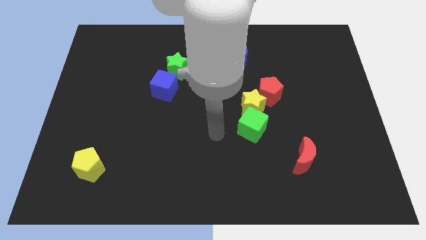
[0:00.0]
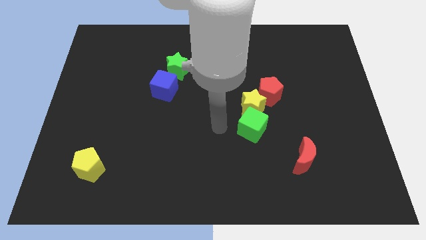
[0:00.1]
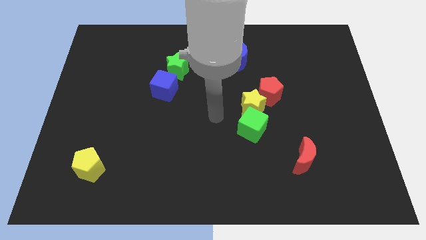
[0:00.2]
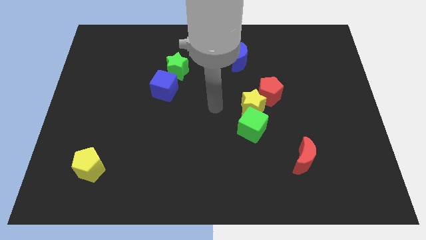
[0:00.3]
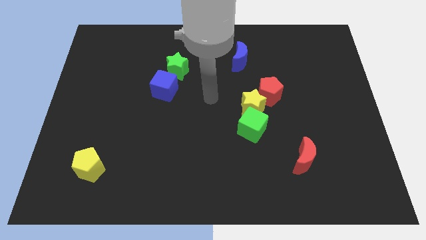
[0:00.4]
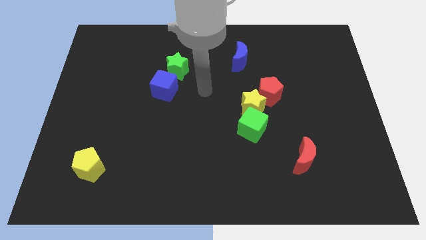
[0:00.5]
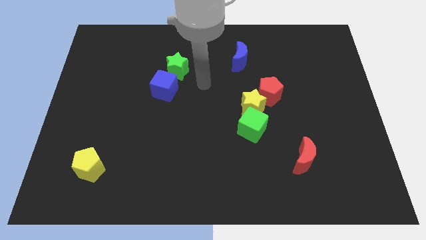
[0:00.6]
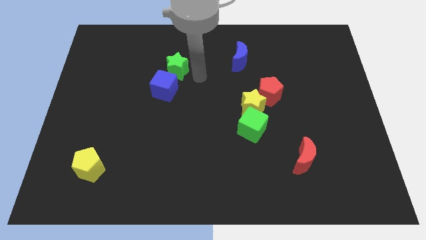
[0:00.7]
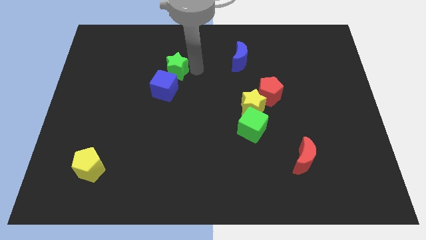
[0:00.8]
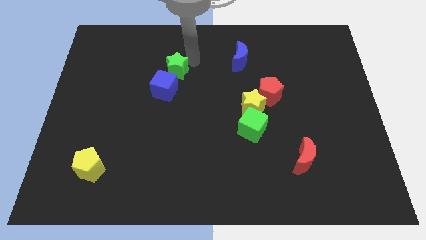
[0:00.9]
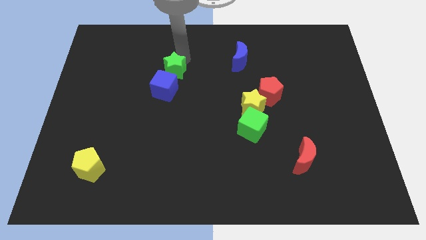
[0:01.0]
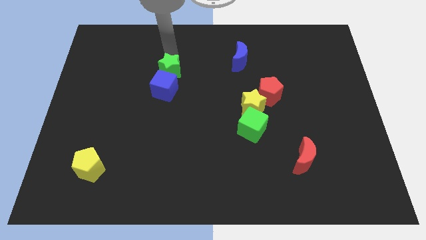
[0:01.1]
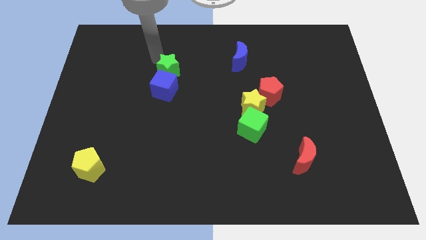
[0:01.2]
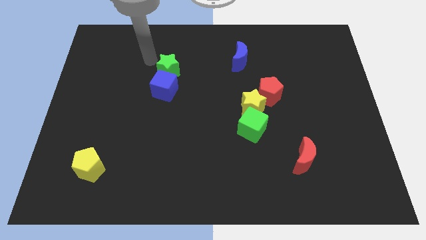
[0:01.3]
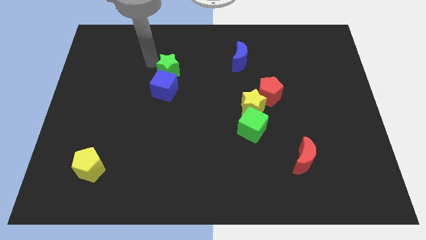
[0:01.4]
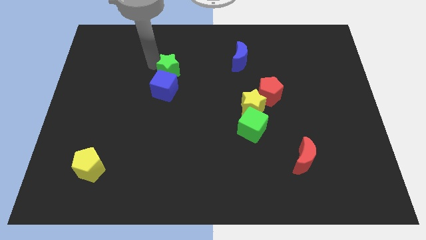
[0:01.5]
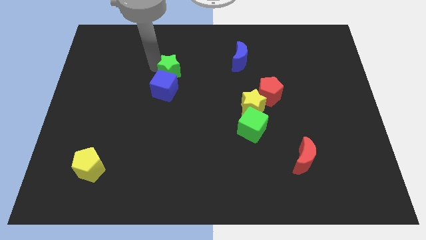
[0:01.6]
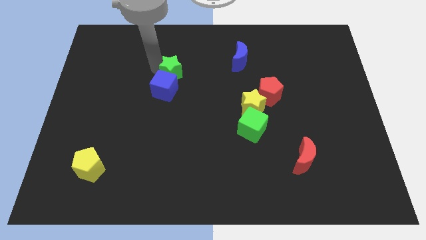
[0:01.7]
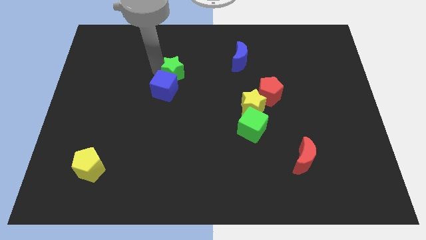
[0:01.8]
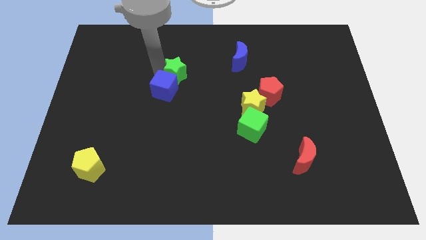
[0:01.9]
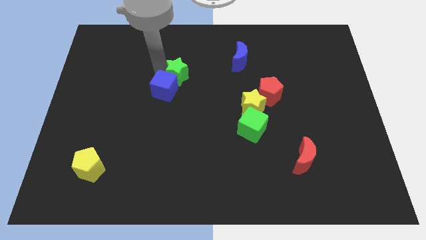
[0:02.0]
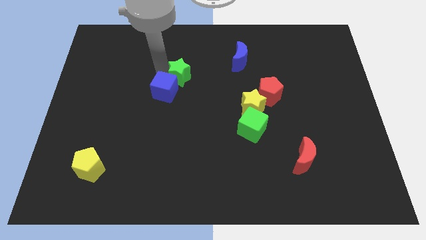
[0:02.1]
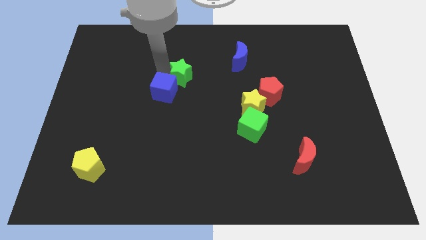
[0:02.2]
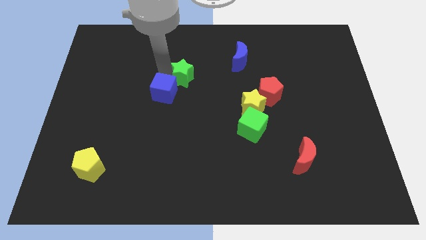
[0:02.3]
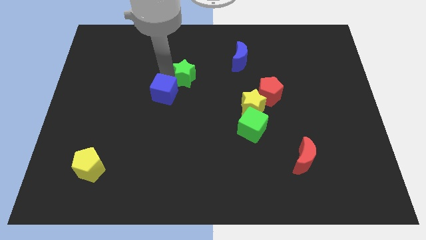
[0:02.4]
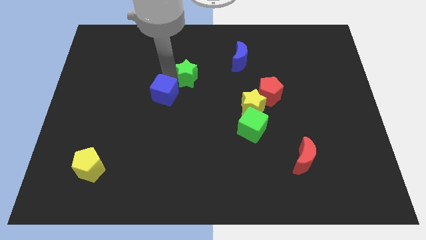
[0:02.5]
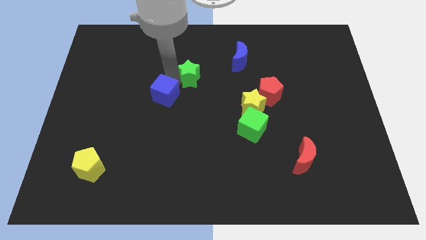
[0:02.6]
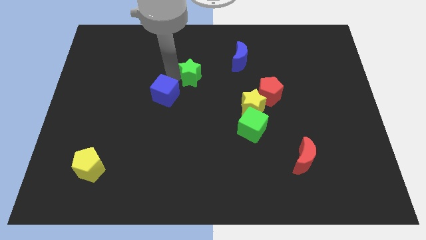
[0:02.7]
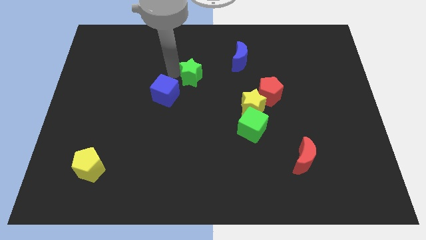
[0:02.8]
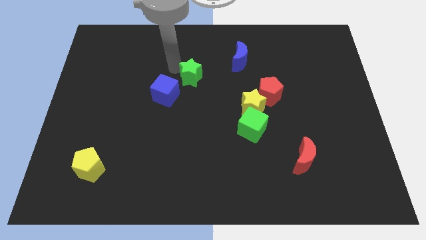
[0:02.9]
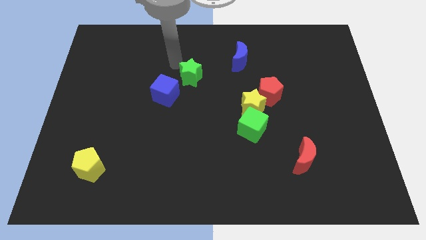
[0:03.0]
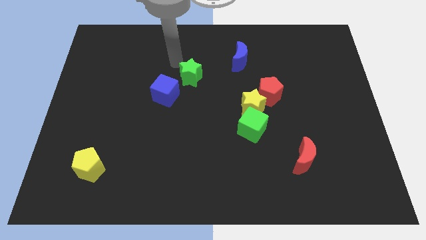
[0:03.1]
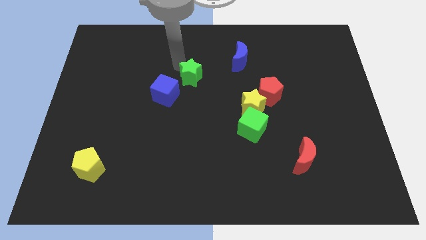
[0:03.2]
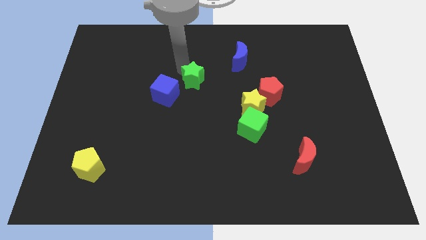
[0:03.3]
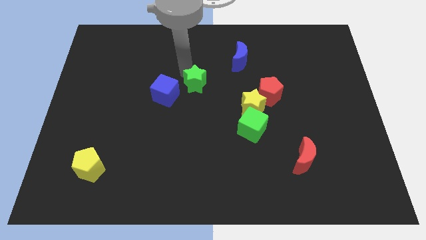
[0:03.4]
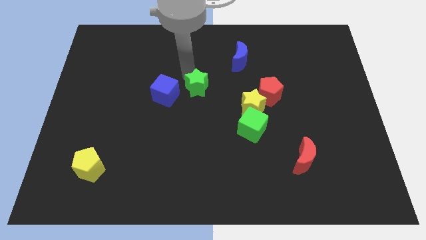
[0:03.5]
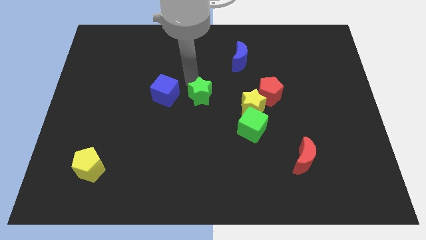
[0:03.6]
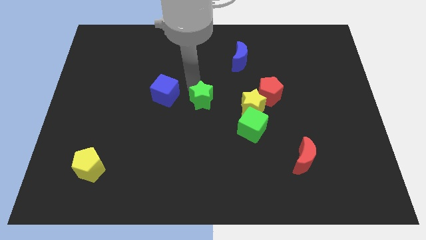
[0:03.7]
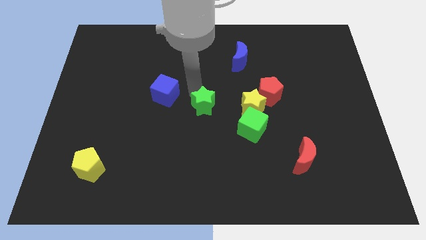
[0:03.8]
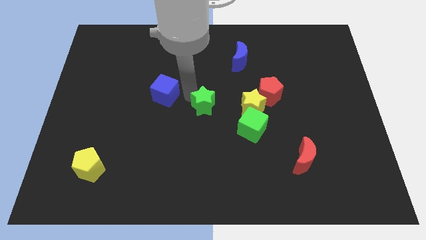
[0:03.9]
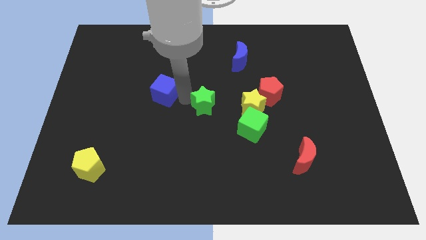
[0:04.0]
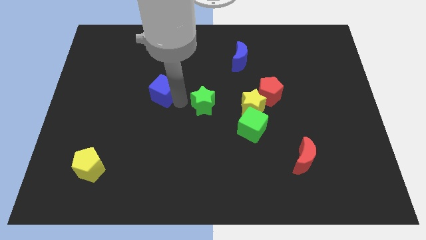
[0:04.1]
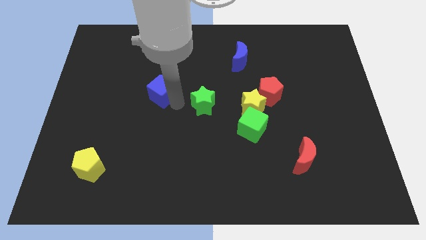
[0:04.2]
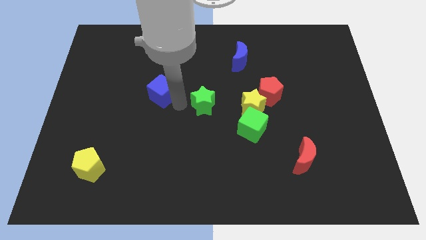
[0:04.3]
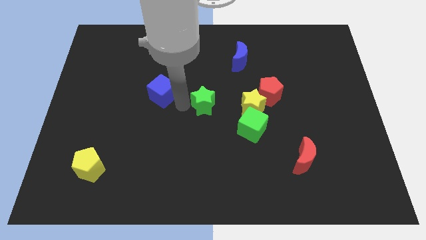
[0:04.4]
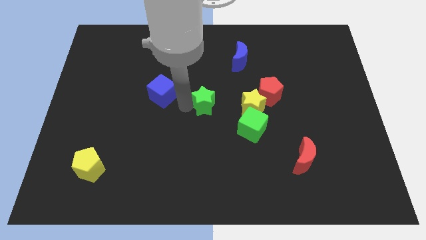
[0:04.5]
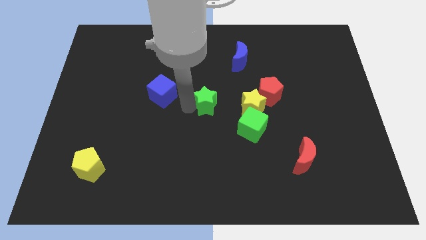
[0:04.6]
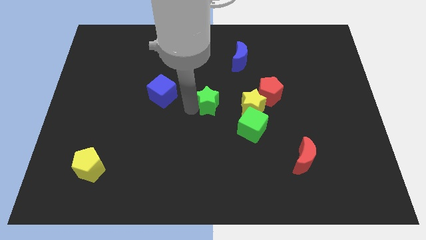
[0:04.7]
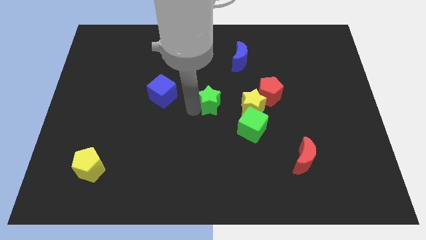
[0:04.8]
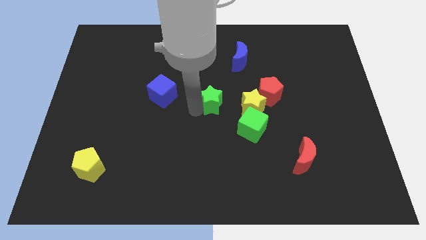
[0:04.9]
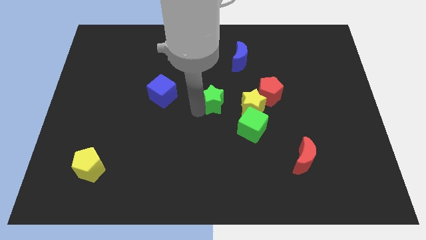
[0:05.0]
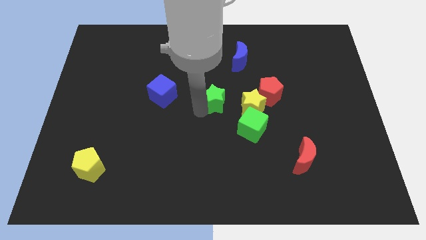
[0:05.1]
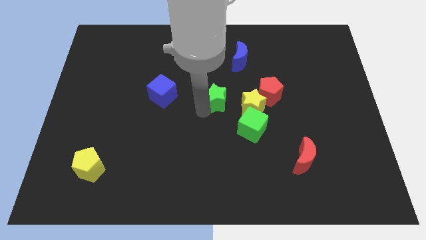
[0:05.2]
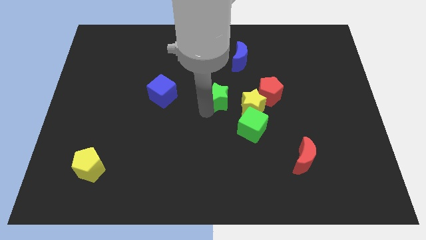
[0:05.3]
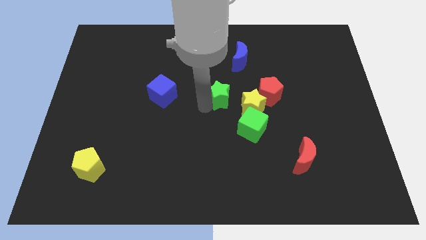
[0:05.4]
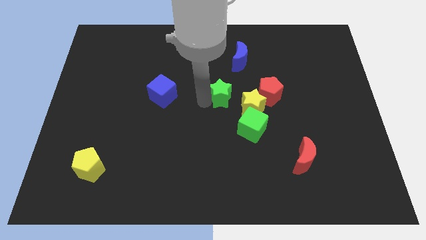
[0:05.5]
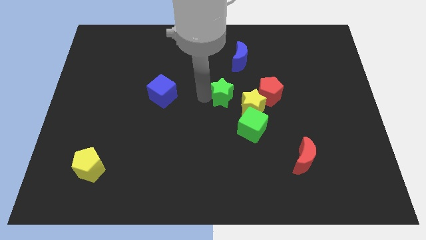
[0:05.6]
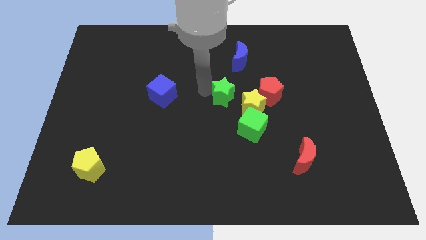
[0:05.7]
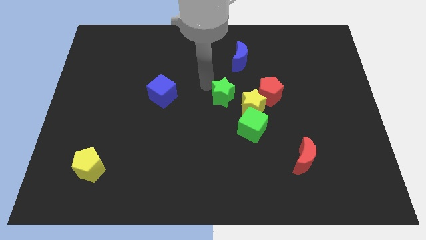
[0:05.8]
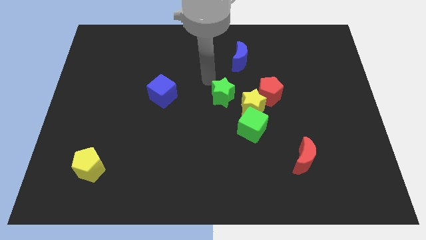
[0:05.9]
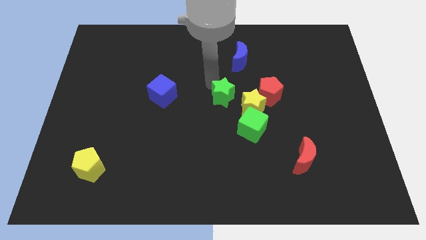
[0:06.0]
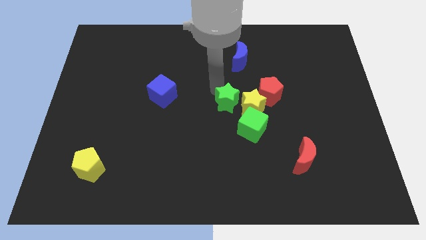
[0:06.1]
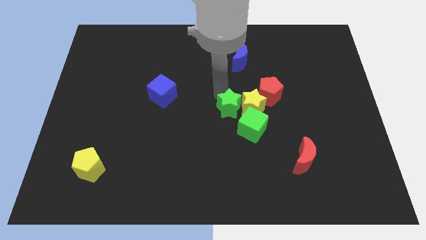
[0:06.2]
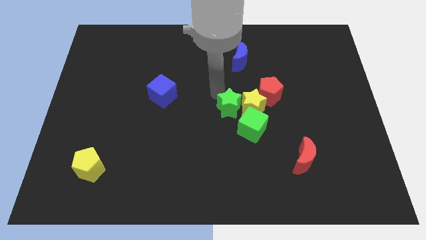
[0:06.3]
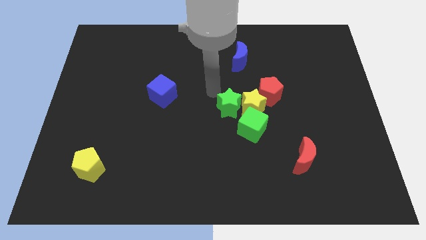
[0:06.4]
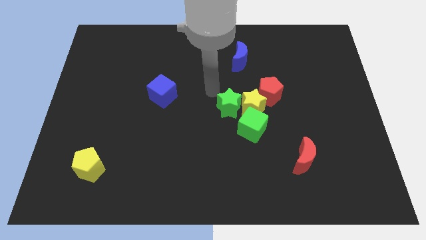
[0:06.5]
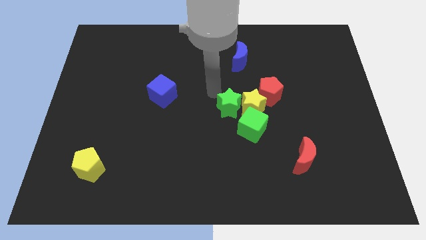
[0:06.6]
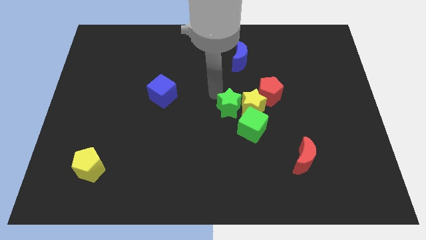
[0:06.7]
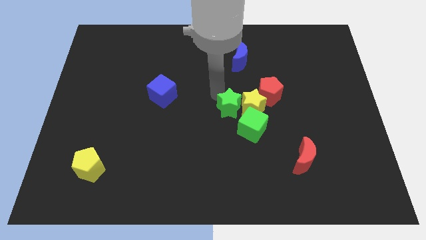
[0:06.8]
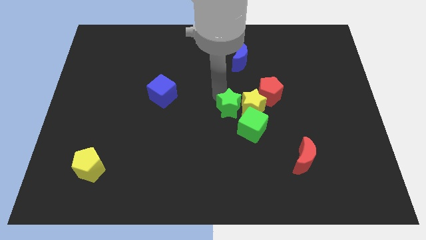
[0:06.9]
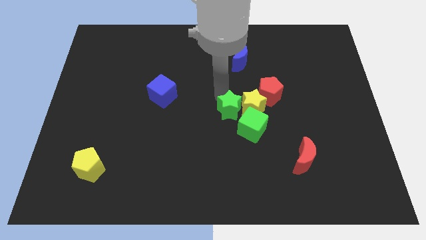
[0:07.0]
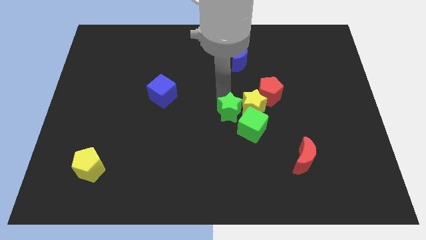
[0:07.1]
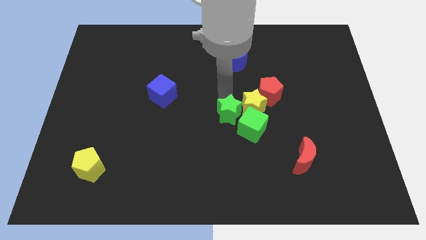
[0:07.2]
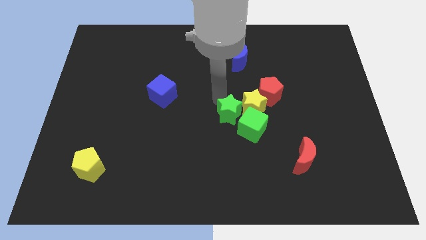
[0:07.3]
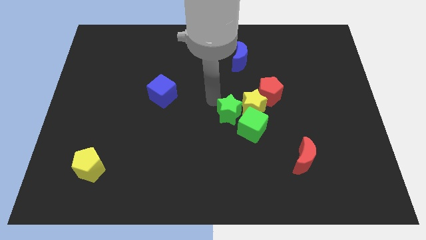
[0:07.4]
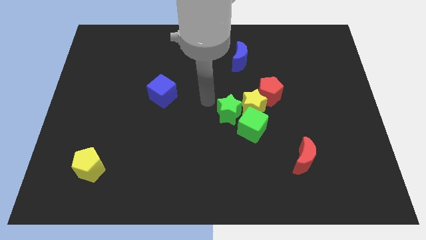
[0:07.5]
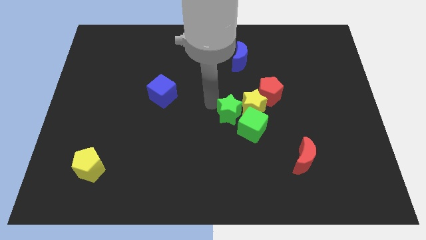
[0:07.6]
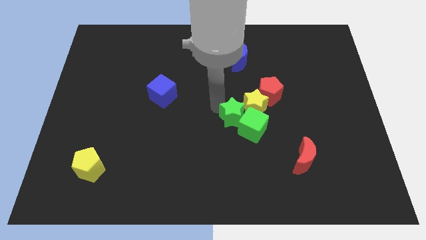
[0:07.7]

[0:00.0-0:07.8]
put the green star close to the green cube

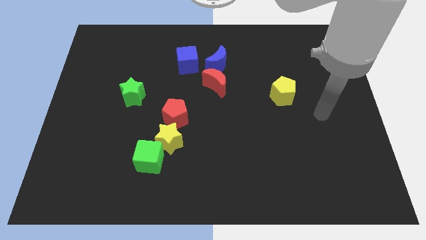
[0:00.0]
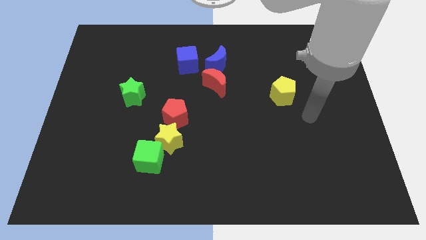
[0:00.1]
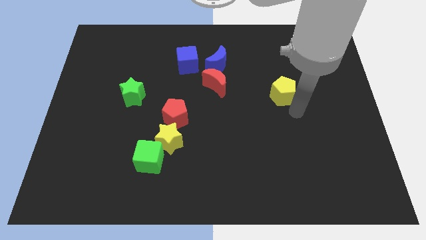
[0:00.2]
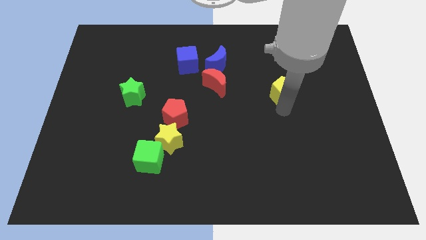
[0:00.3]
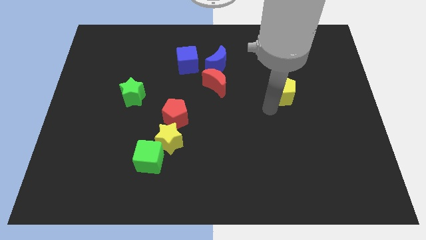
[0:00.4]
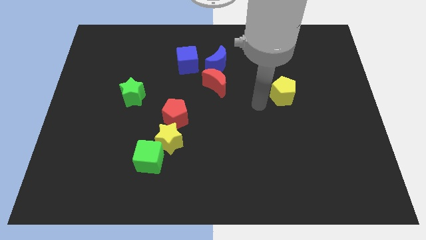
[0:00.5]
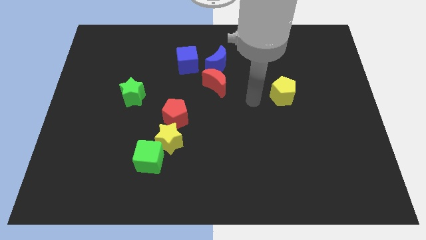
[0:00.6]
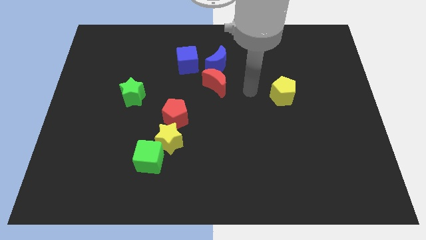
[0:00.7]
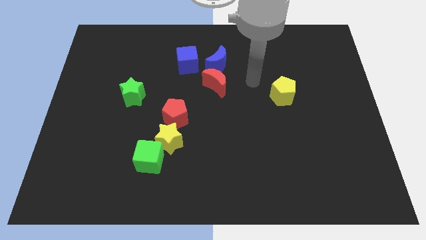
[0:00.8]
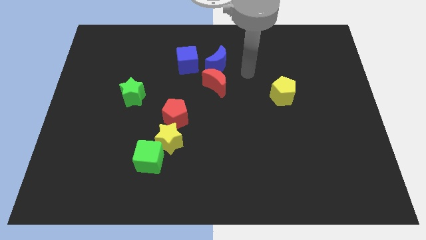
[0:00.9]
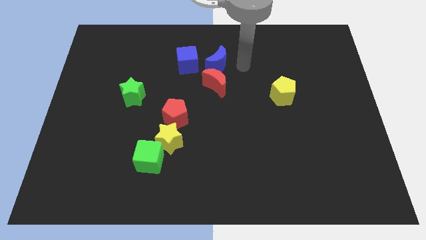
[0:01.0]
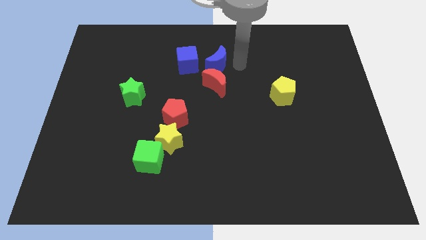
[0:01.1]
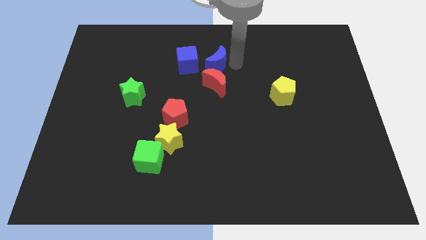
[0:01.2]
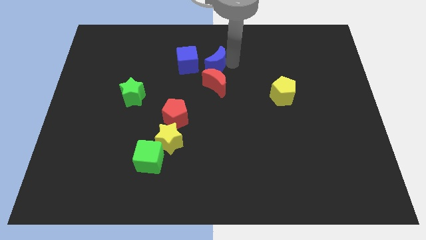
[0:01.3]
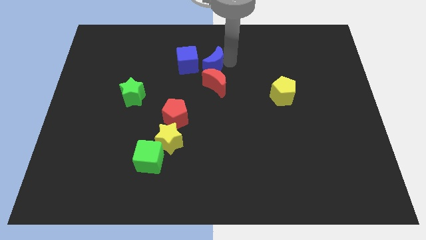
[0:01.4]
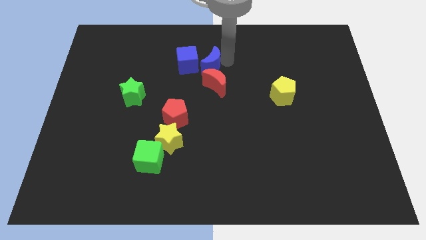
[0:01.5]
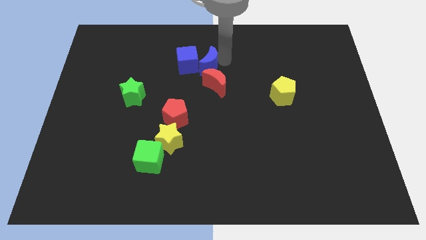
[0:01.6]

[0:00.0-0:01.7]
slide the blue moon towards the blue cube
